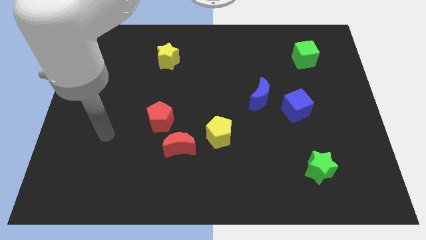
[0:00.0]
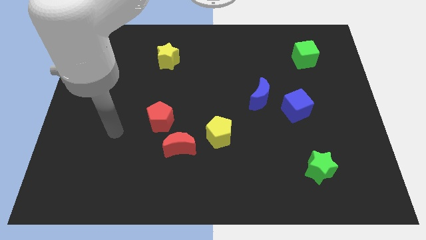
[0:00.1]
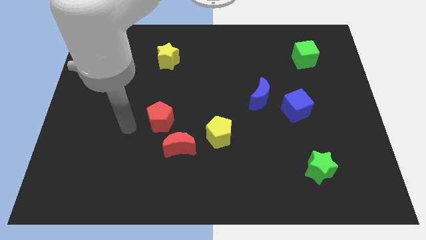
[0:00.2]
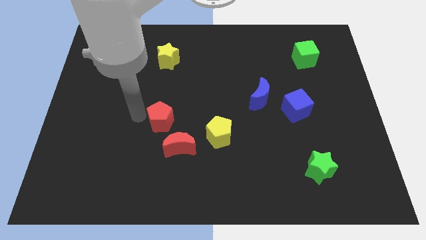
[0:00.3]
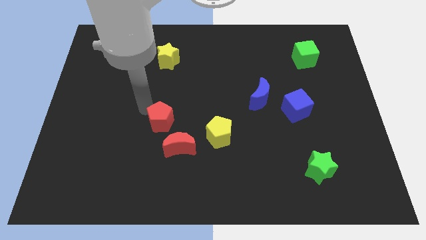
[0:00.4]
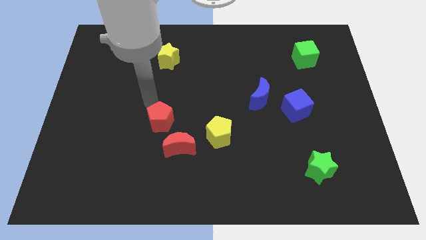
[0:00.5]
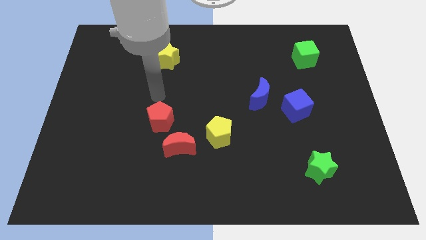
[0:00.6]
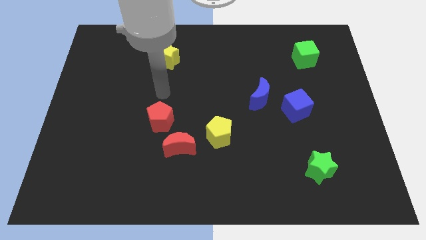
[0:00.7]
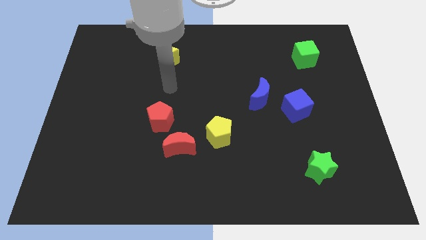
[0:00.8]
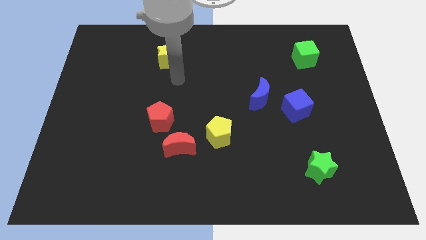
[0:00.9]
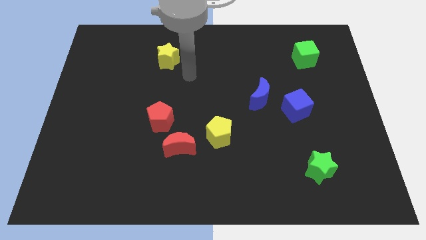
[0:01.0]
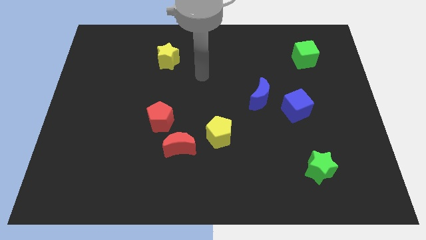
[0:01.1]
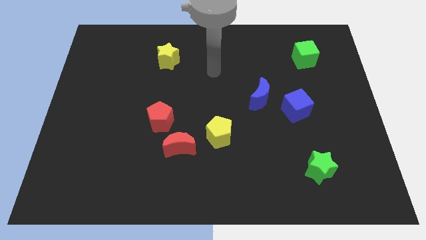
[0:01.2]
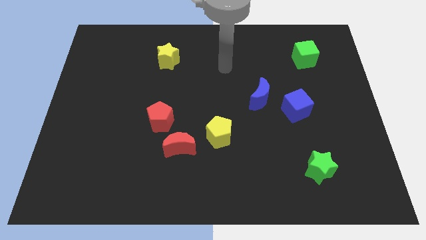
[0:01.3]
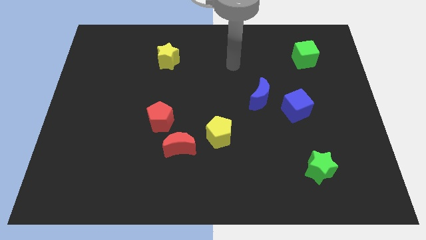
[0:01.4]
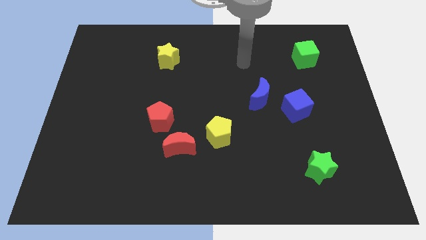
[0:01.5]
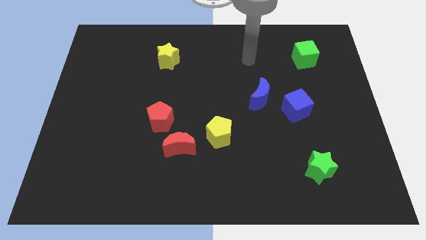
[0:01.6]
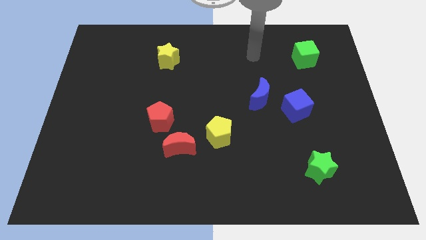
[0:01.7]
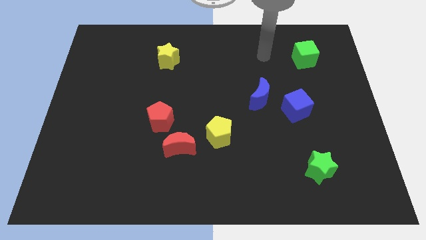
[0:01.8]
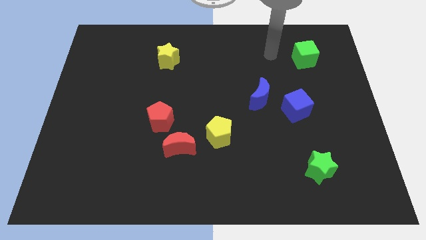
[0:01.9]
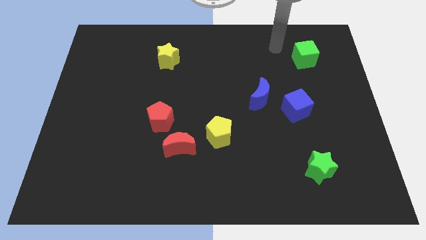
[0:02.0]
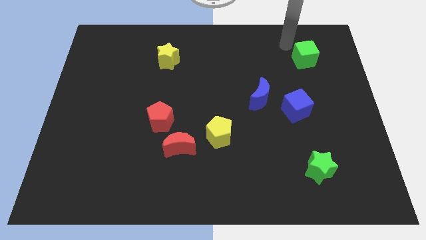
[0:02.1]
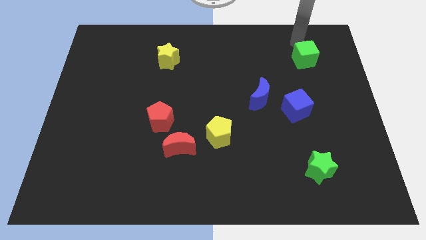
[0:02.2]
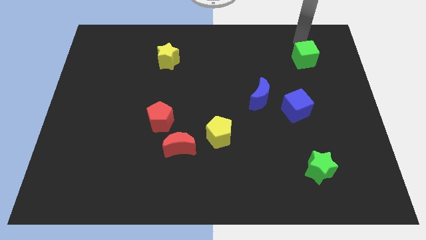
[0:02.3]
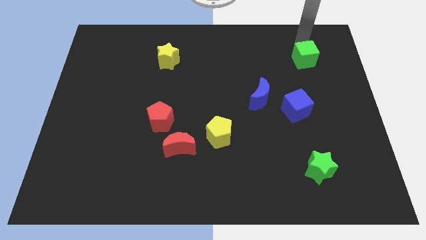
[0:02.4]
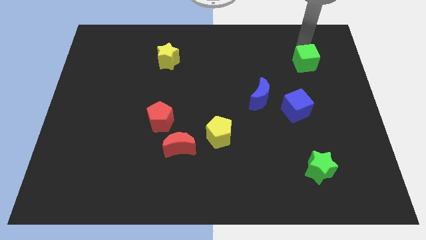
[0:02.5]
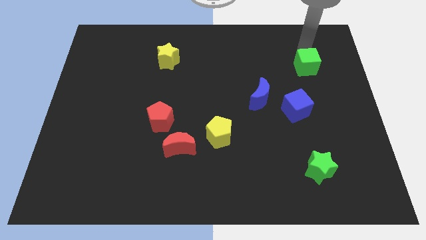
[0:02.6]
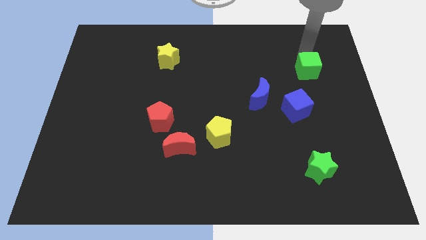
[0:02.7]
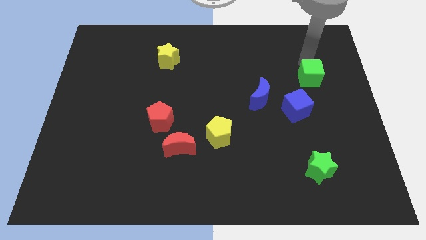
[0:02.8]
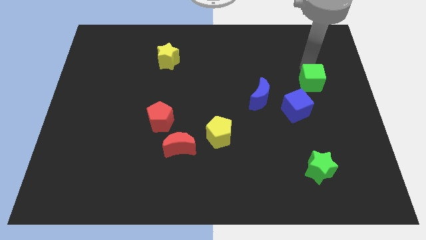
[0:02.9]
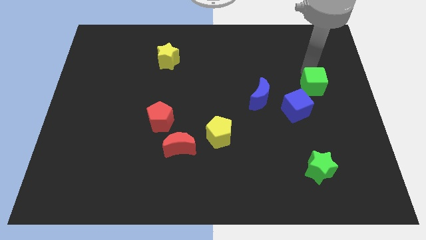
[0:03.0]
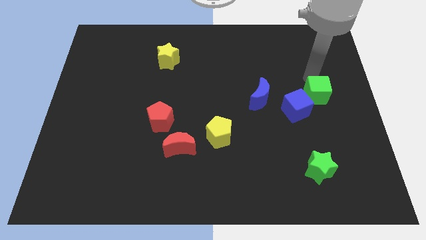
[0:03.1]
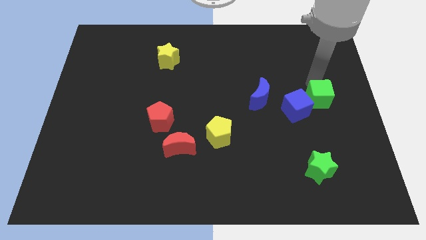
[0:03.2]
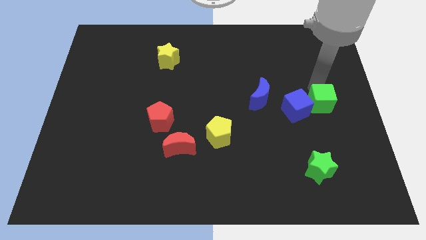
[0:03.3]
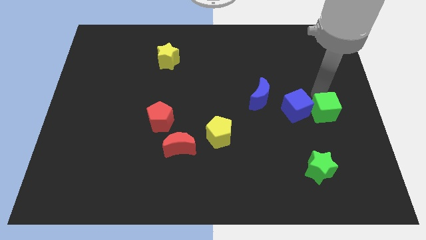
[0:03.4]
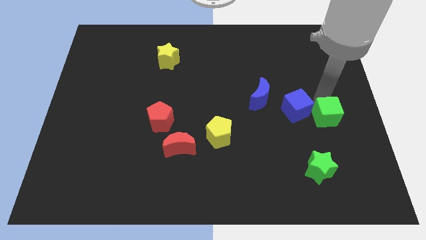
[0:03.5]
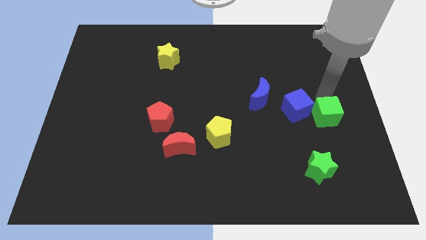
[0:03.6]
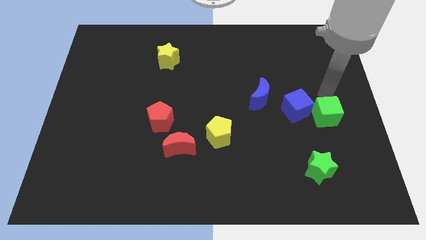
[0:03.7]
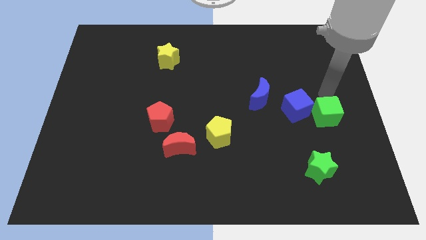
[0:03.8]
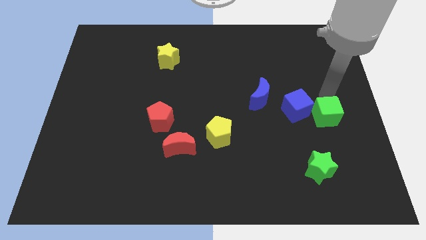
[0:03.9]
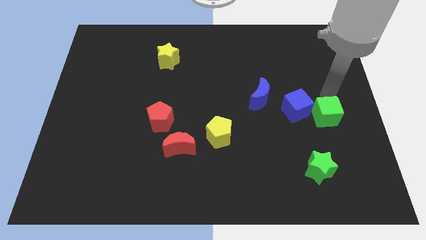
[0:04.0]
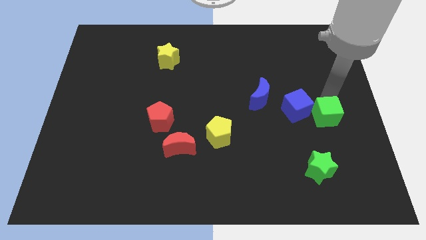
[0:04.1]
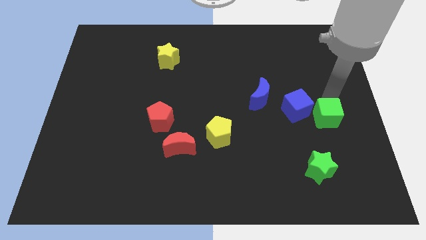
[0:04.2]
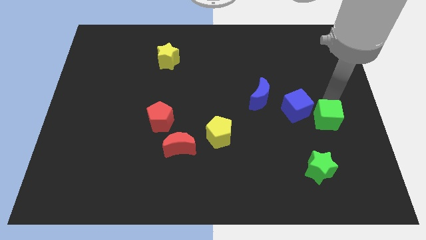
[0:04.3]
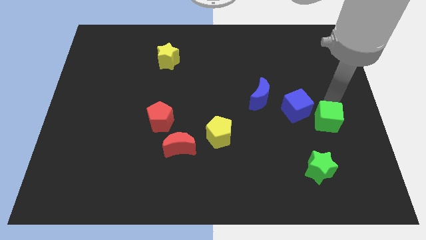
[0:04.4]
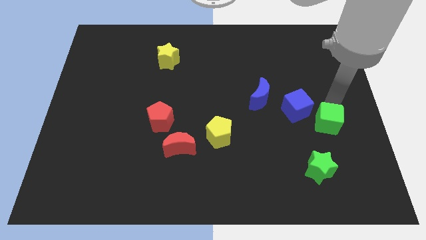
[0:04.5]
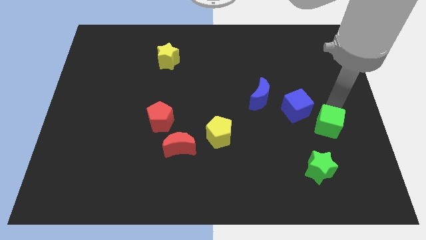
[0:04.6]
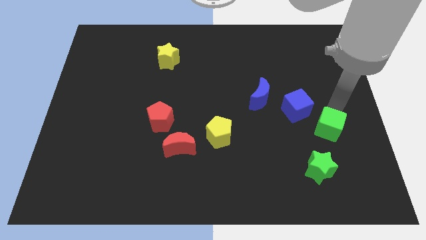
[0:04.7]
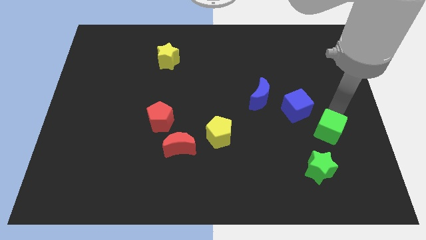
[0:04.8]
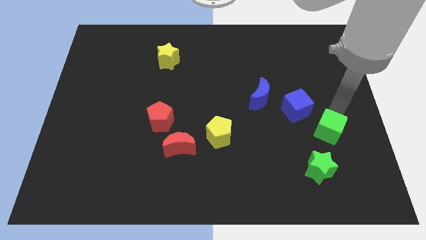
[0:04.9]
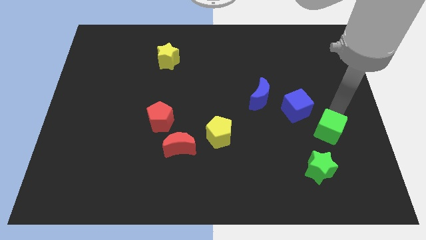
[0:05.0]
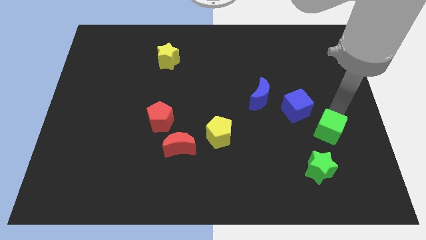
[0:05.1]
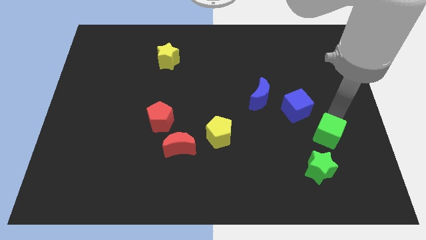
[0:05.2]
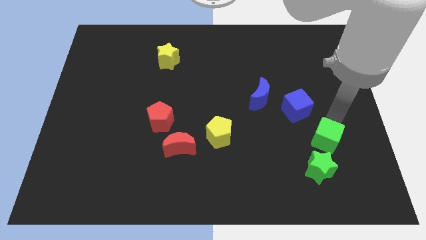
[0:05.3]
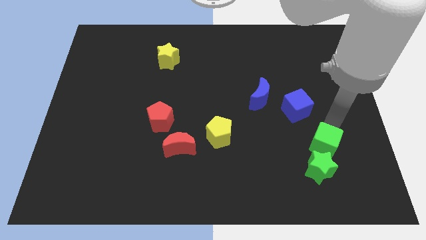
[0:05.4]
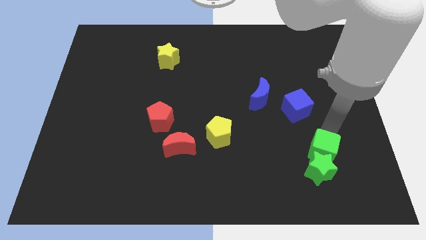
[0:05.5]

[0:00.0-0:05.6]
move the green cube towards the green star

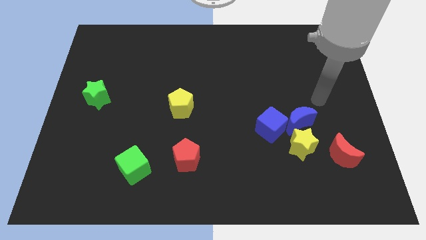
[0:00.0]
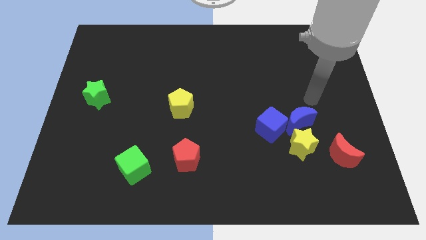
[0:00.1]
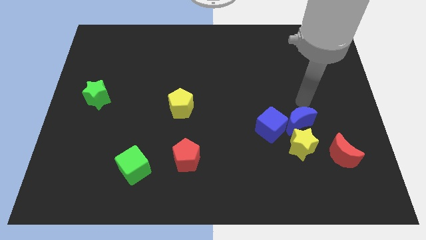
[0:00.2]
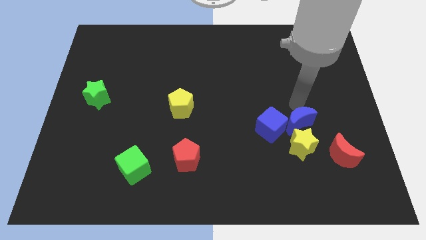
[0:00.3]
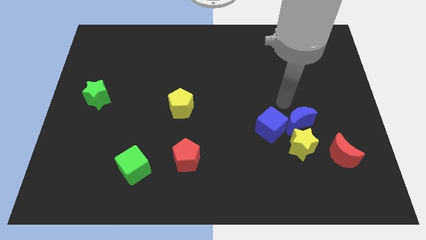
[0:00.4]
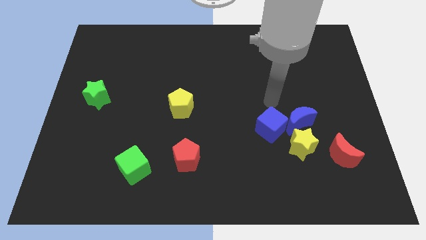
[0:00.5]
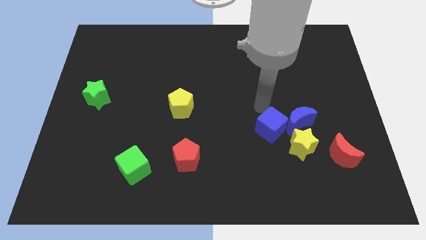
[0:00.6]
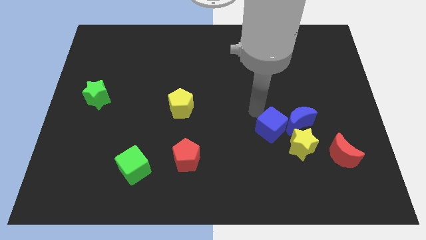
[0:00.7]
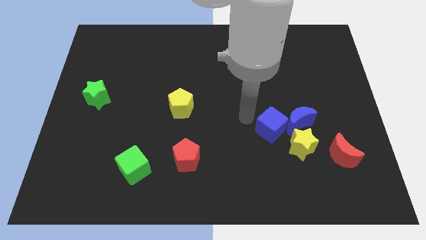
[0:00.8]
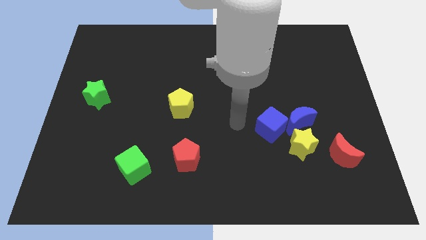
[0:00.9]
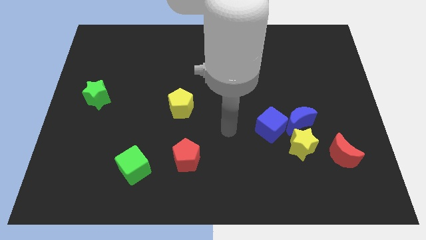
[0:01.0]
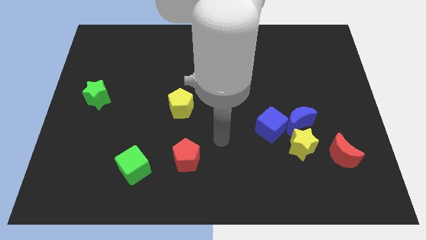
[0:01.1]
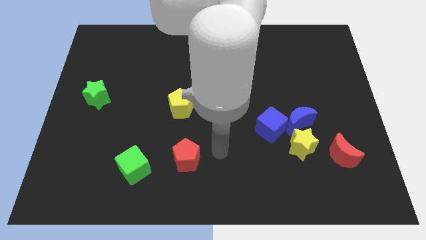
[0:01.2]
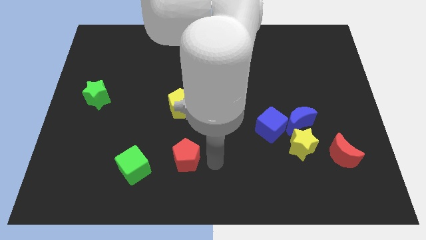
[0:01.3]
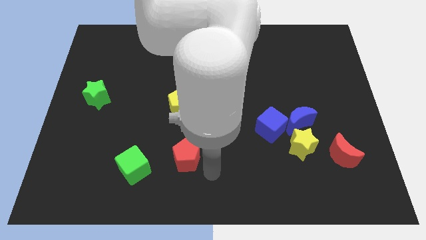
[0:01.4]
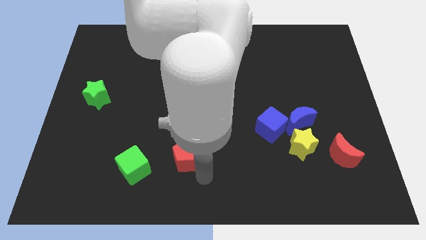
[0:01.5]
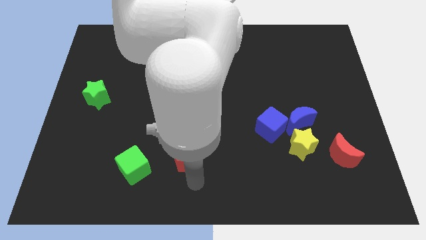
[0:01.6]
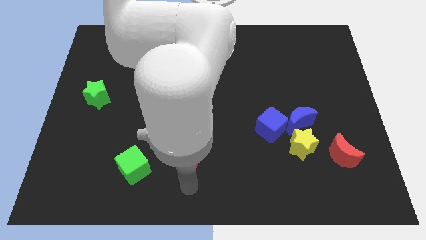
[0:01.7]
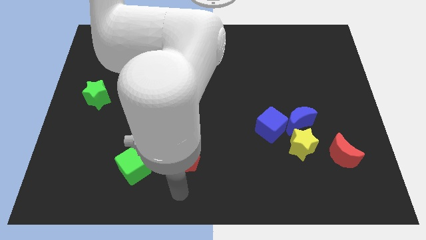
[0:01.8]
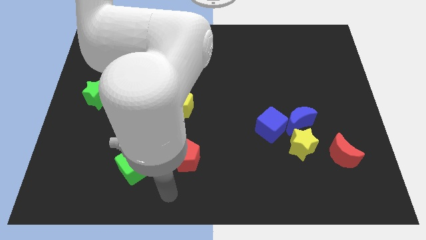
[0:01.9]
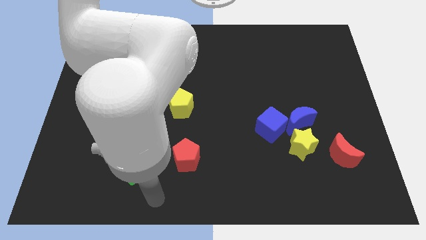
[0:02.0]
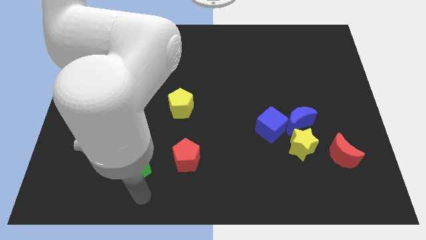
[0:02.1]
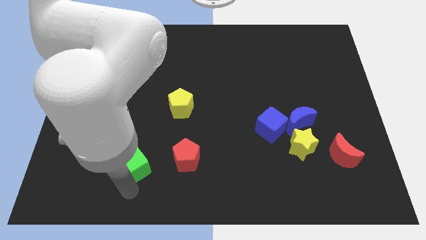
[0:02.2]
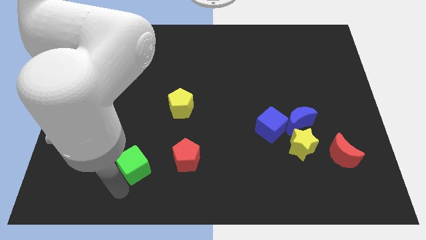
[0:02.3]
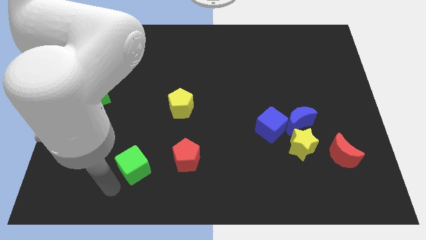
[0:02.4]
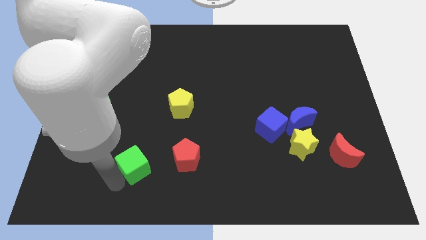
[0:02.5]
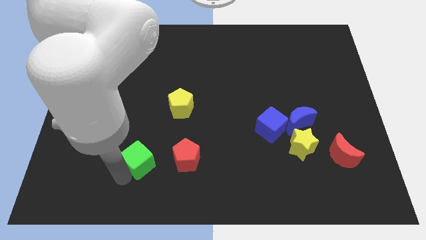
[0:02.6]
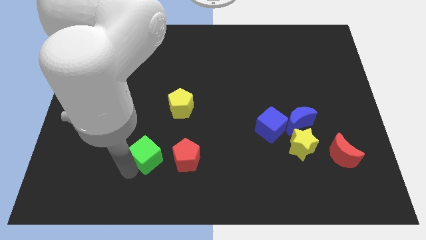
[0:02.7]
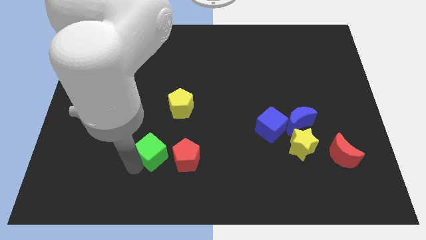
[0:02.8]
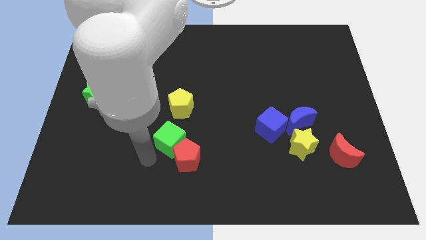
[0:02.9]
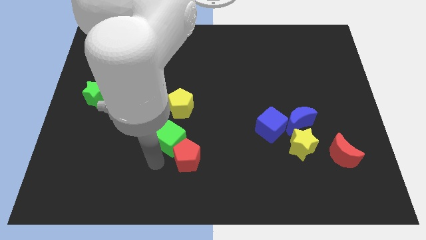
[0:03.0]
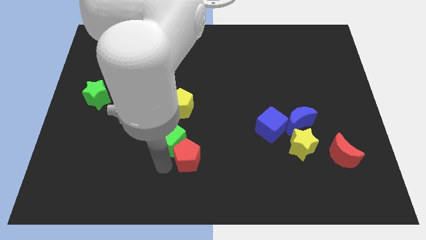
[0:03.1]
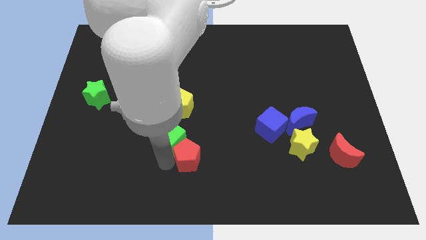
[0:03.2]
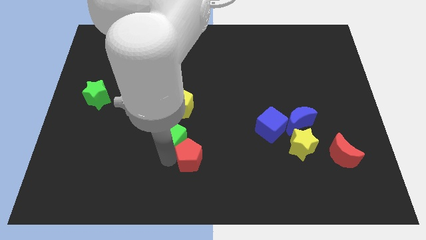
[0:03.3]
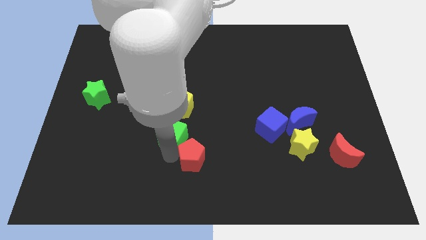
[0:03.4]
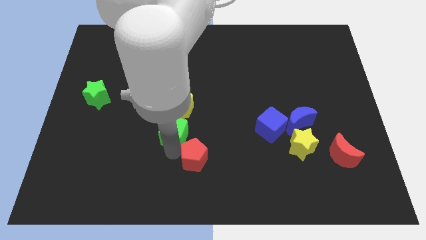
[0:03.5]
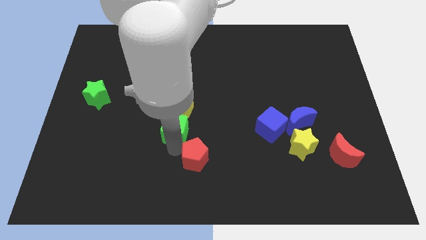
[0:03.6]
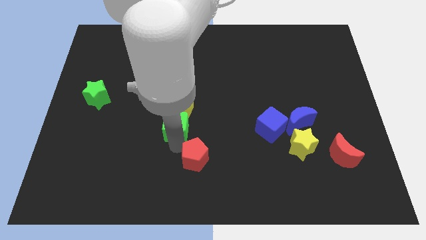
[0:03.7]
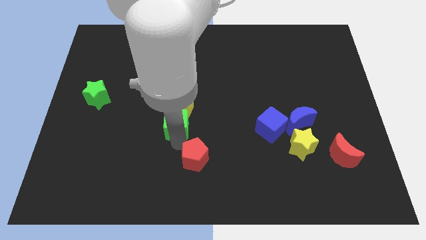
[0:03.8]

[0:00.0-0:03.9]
push the green cube close to the yellow pentagon
